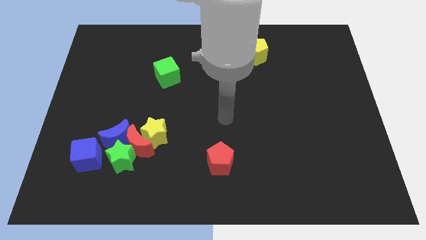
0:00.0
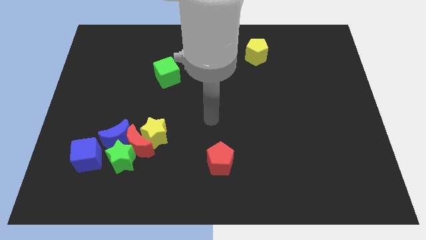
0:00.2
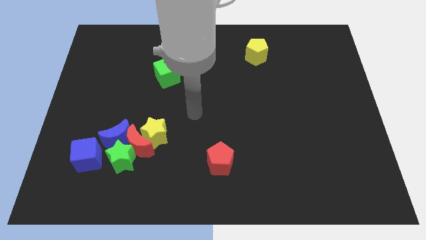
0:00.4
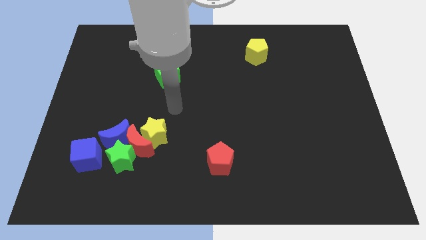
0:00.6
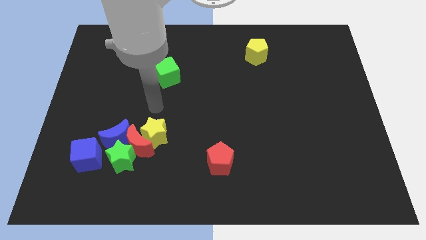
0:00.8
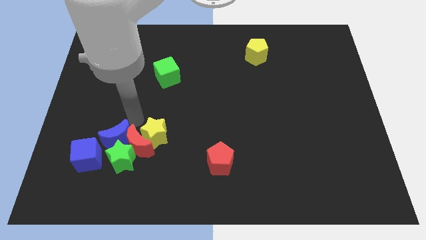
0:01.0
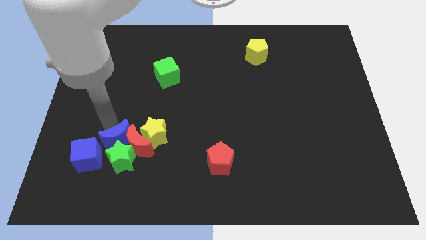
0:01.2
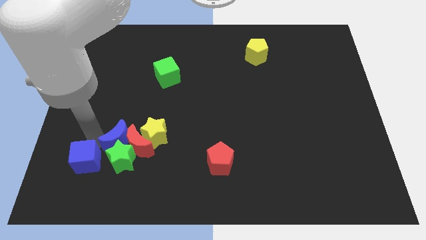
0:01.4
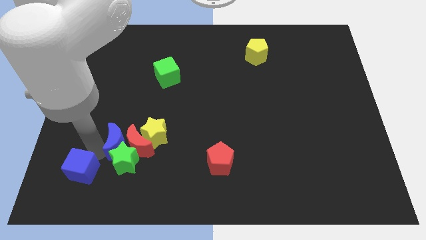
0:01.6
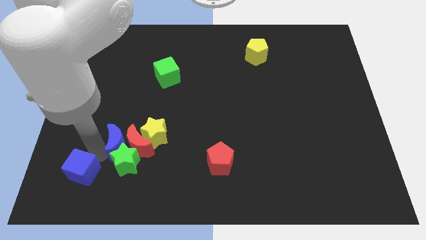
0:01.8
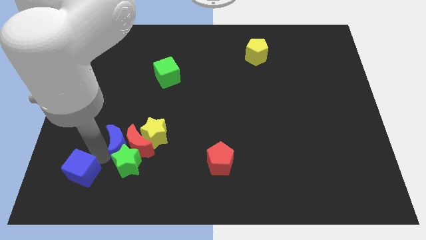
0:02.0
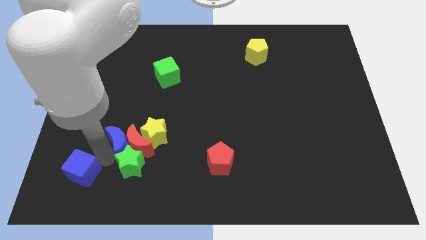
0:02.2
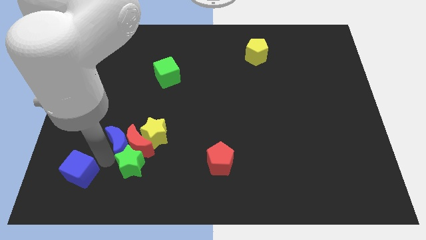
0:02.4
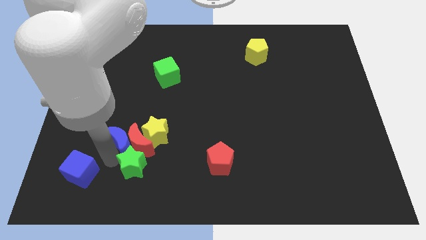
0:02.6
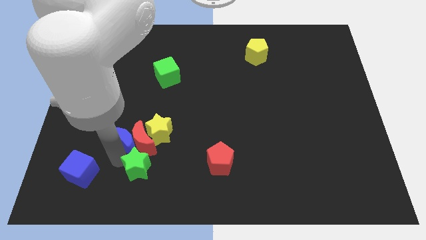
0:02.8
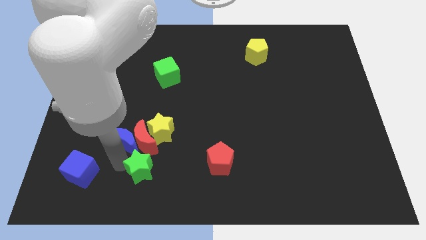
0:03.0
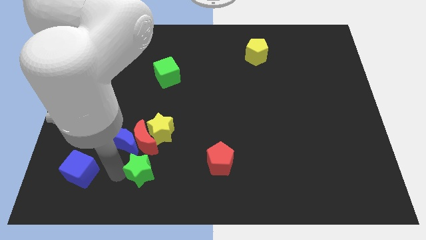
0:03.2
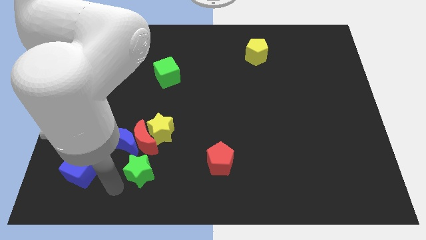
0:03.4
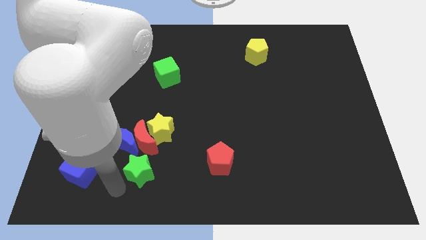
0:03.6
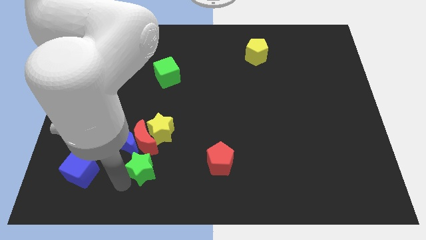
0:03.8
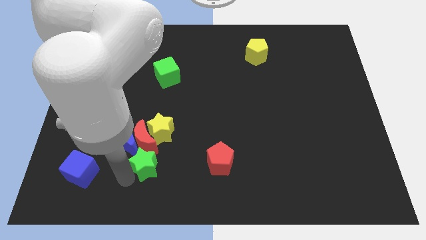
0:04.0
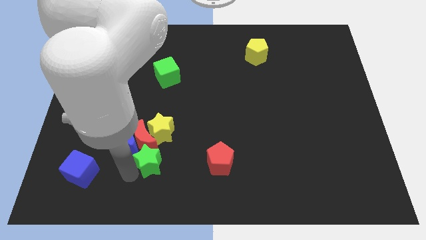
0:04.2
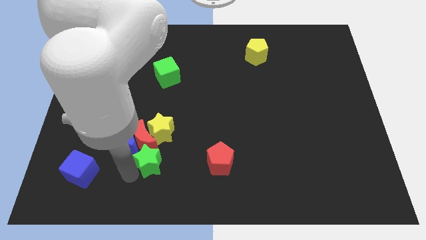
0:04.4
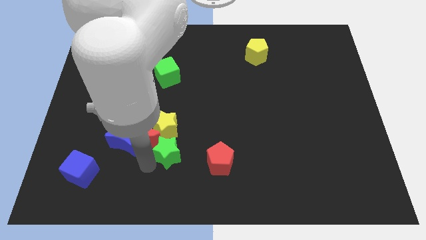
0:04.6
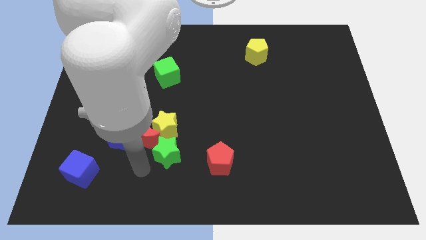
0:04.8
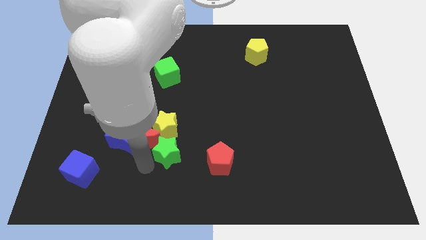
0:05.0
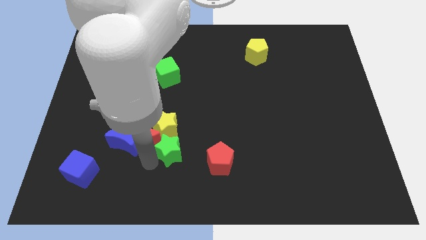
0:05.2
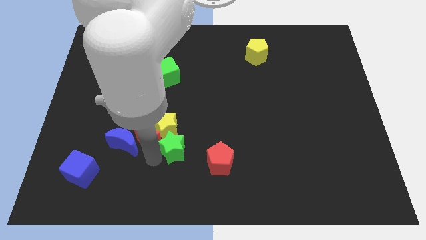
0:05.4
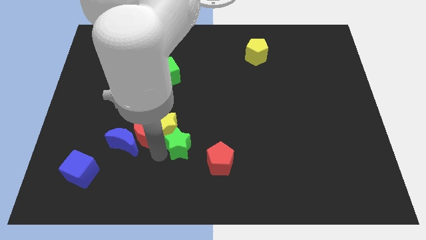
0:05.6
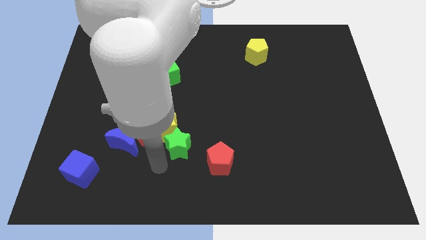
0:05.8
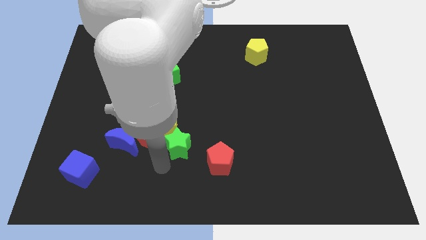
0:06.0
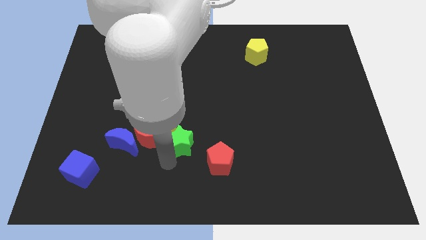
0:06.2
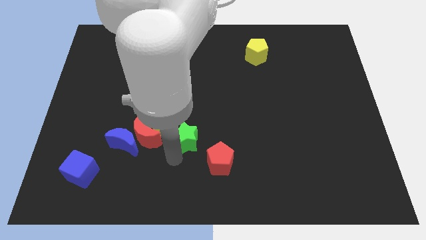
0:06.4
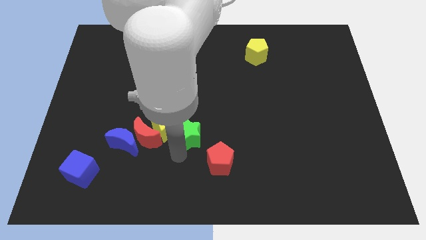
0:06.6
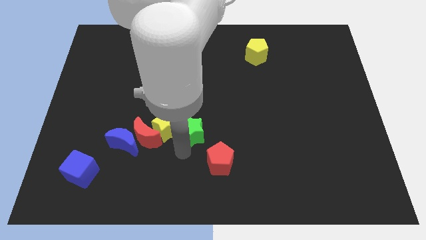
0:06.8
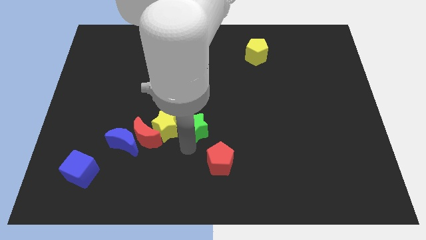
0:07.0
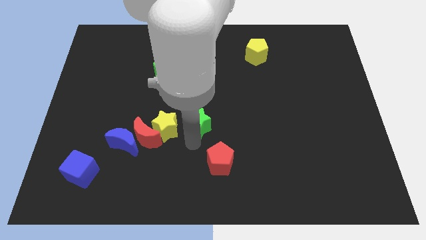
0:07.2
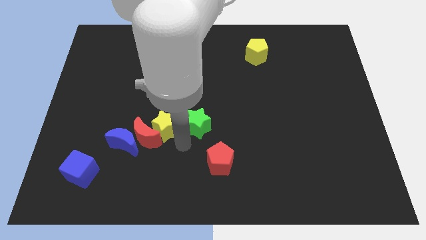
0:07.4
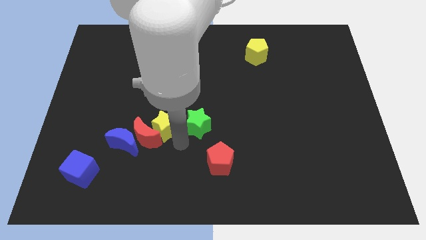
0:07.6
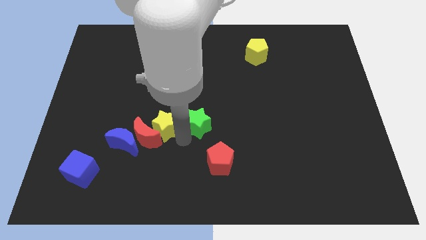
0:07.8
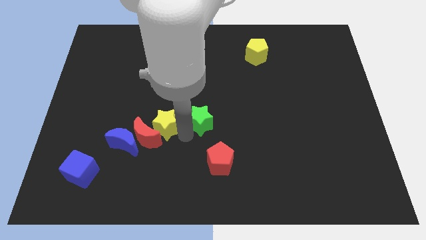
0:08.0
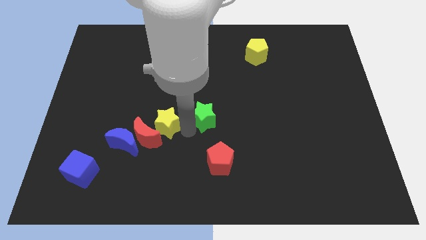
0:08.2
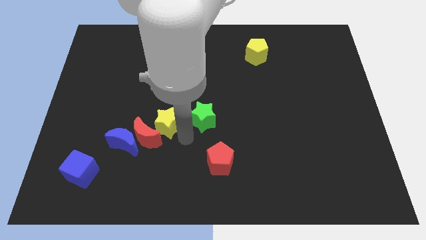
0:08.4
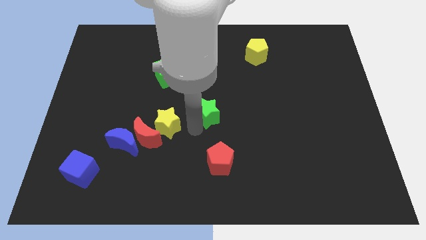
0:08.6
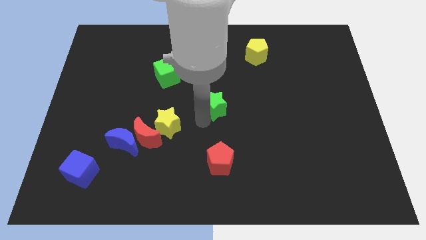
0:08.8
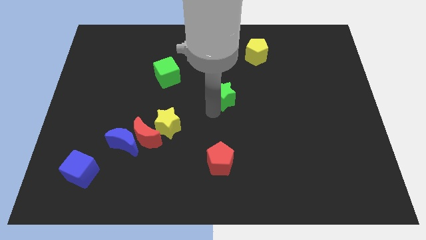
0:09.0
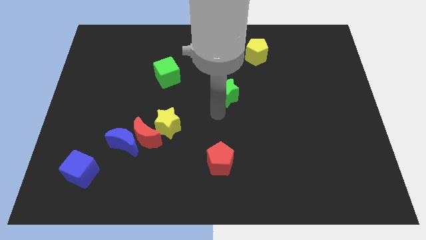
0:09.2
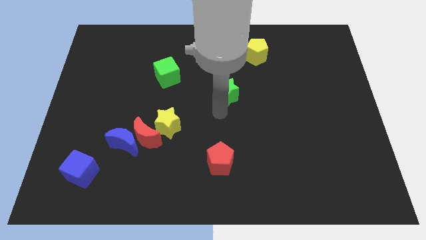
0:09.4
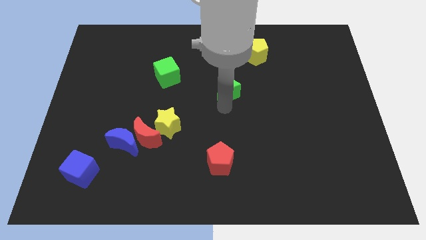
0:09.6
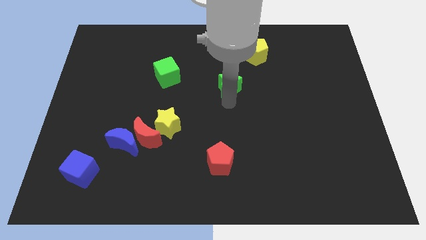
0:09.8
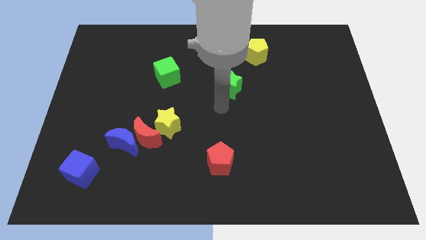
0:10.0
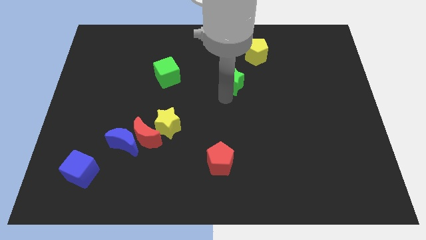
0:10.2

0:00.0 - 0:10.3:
push the green star to the bottom left side of the yellow pentagon

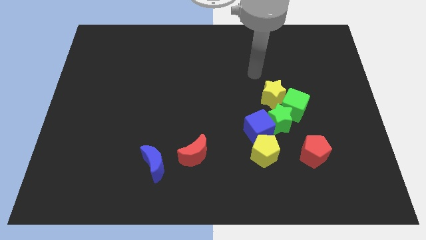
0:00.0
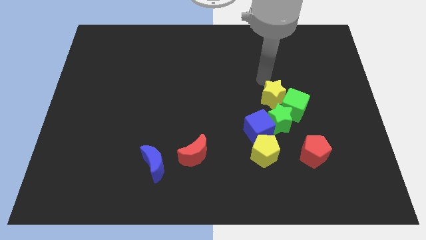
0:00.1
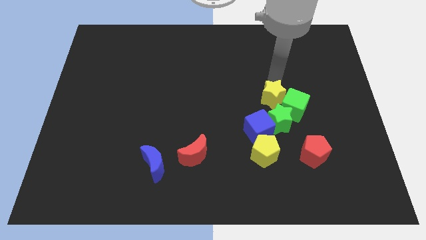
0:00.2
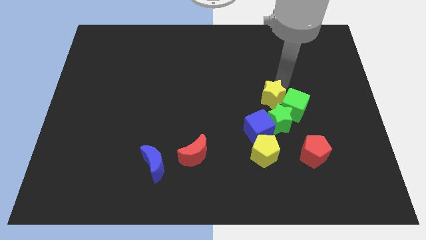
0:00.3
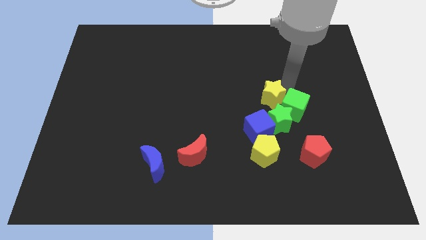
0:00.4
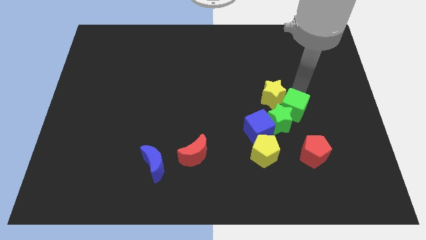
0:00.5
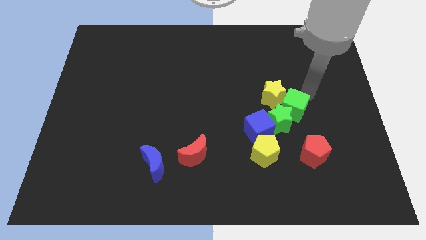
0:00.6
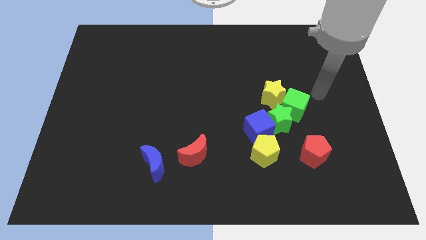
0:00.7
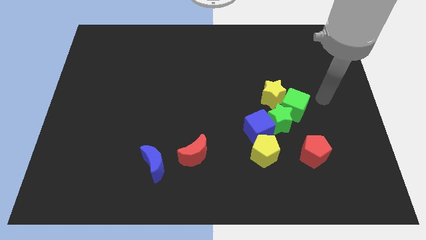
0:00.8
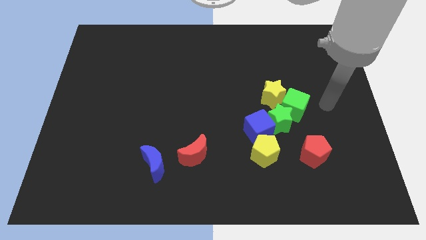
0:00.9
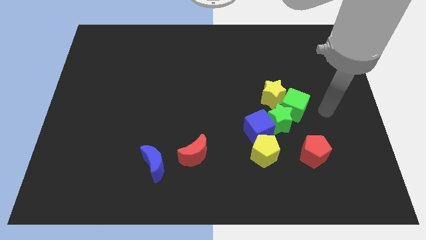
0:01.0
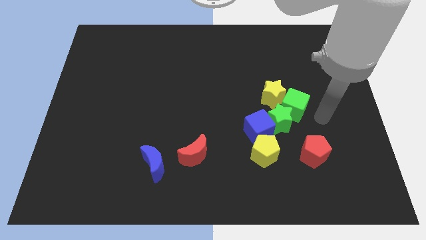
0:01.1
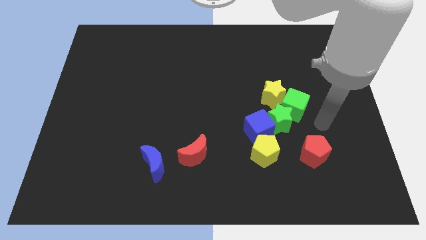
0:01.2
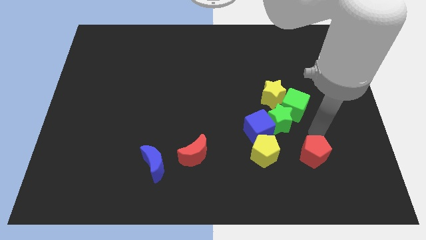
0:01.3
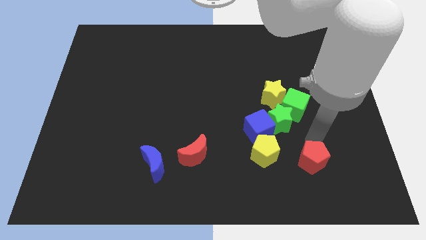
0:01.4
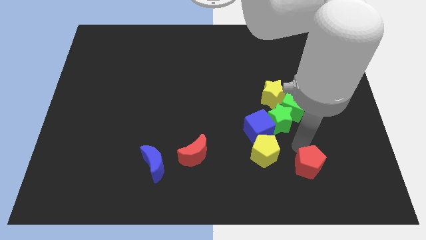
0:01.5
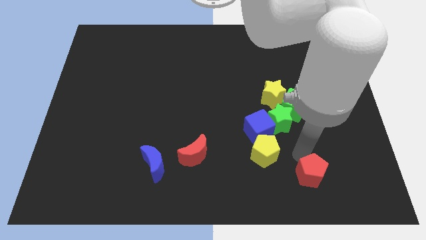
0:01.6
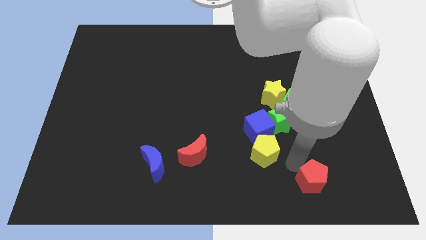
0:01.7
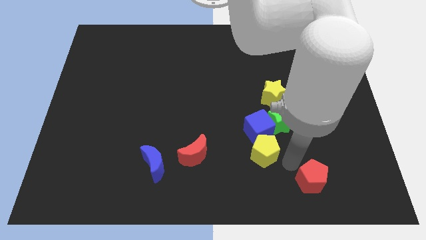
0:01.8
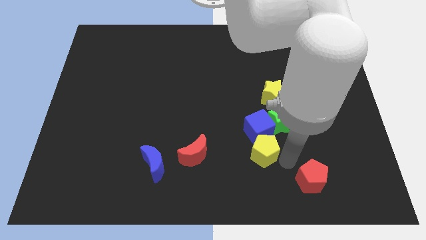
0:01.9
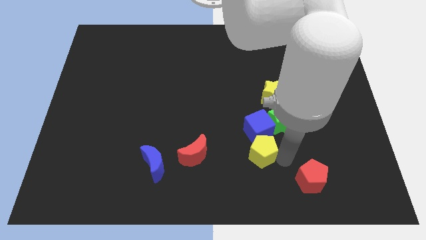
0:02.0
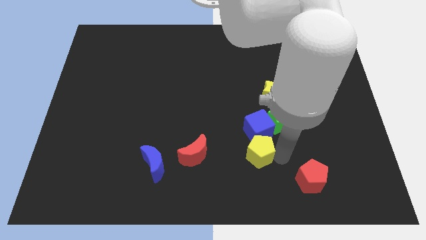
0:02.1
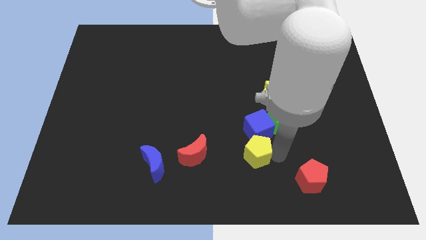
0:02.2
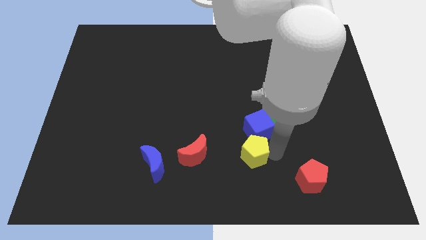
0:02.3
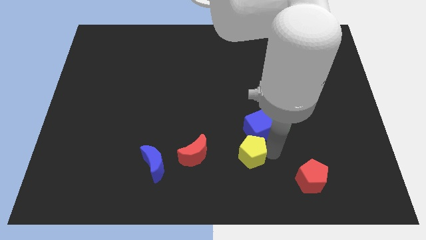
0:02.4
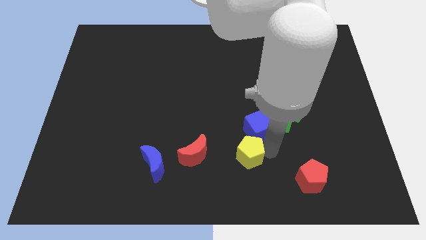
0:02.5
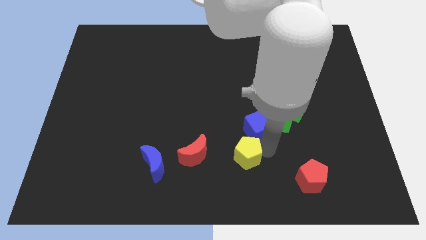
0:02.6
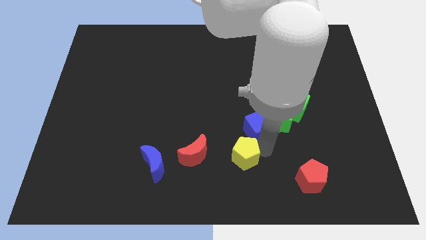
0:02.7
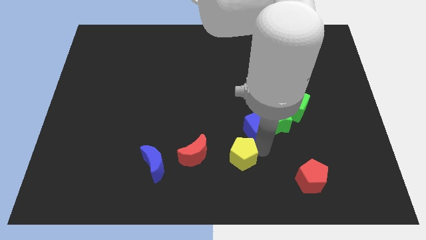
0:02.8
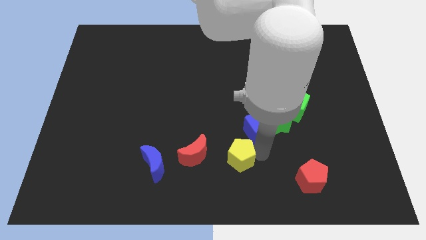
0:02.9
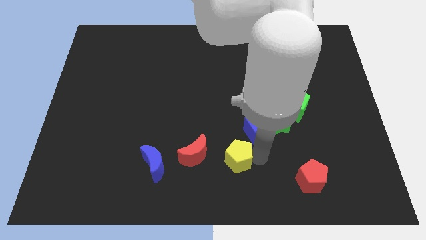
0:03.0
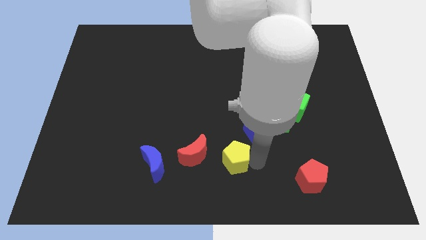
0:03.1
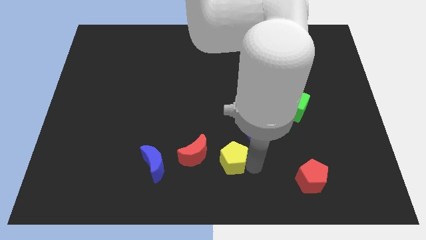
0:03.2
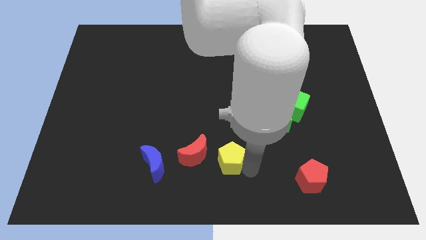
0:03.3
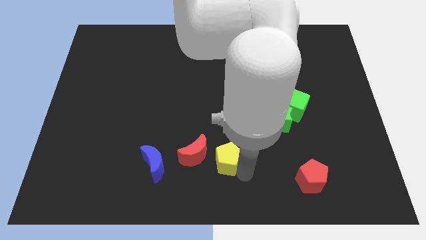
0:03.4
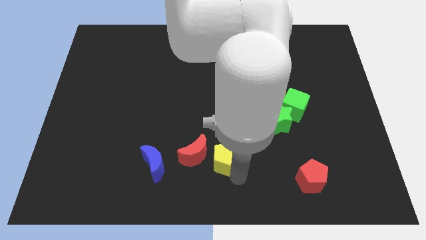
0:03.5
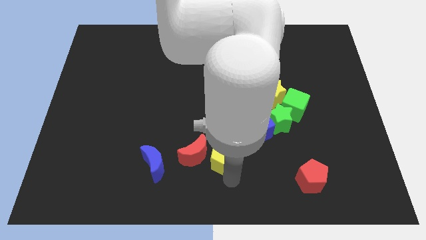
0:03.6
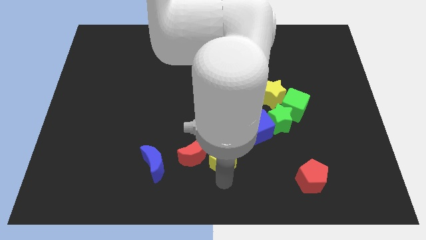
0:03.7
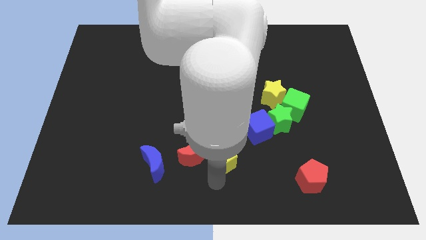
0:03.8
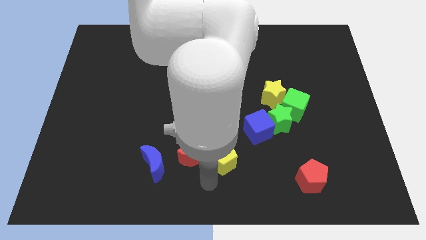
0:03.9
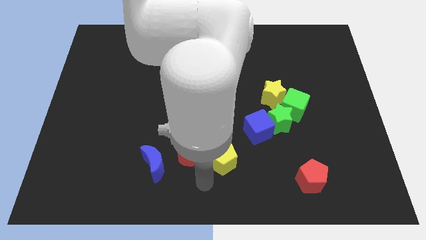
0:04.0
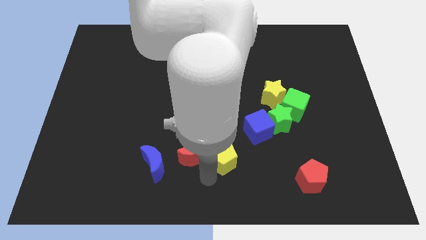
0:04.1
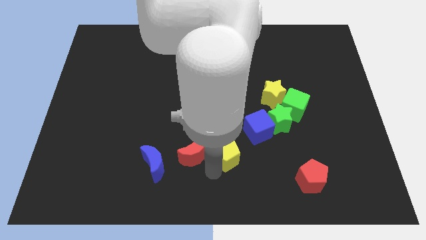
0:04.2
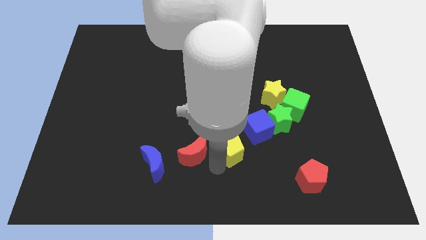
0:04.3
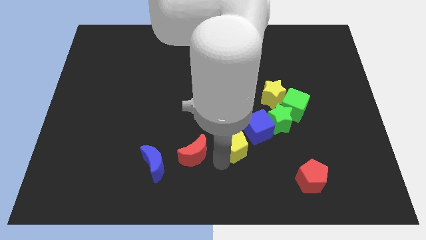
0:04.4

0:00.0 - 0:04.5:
push the yellow pentagon to the left side of the blue cube
